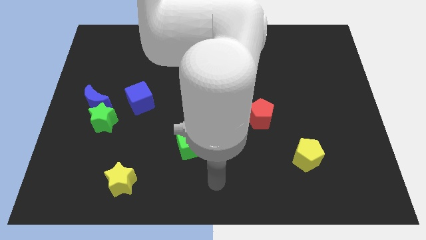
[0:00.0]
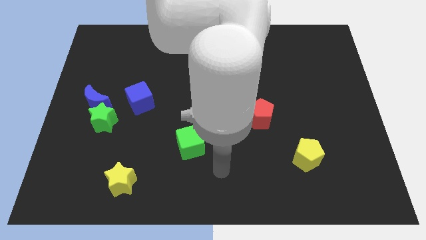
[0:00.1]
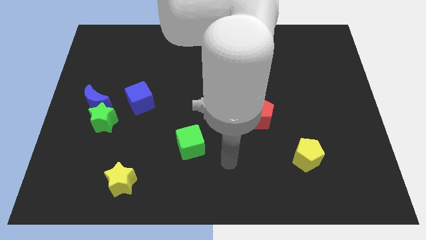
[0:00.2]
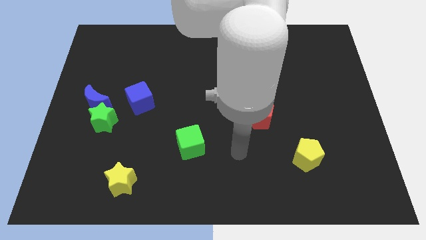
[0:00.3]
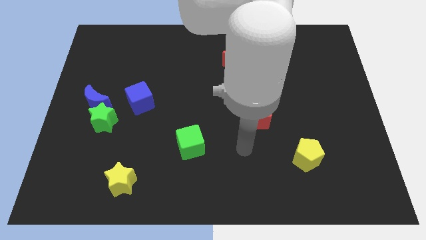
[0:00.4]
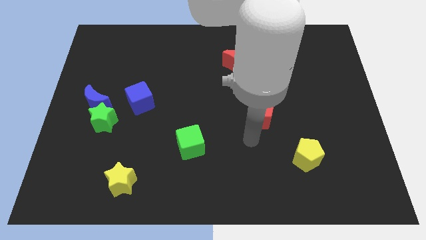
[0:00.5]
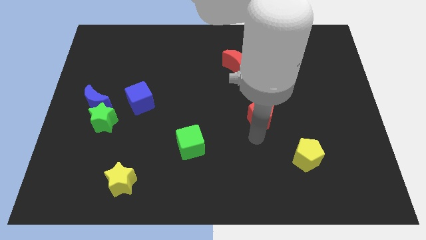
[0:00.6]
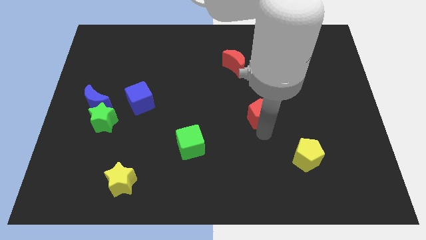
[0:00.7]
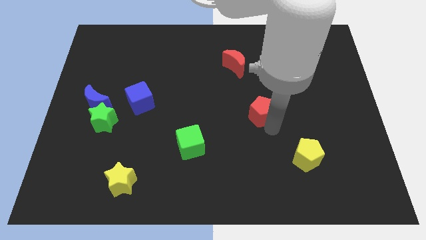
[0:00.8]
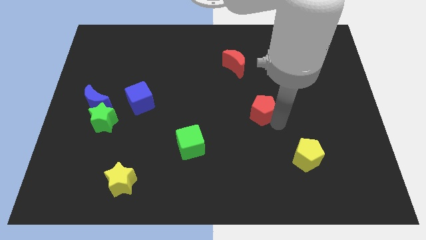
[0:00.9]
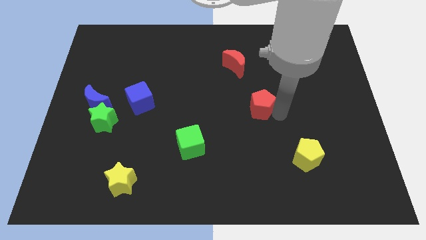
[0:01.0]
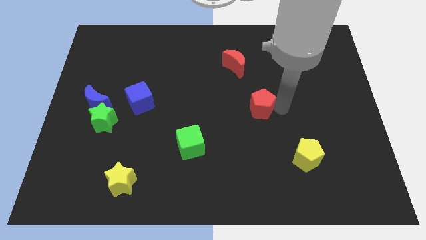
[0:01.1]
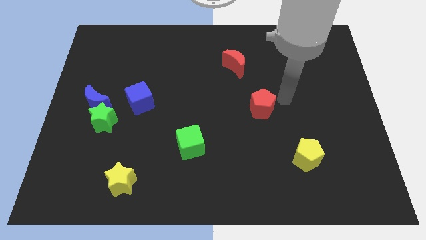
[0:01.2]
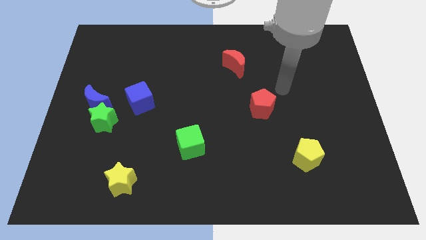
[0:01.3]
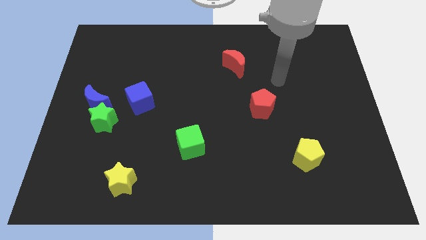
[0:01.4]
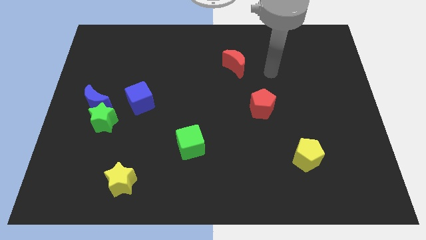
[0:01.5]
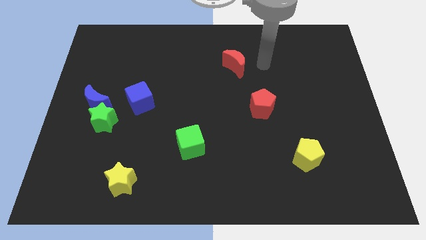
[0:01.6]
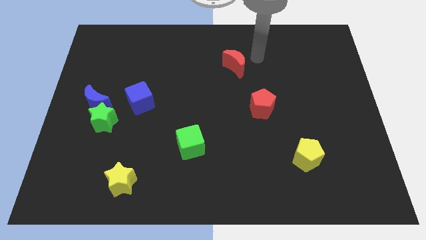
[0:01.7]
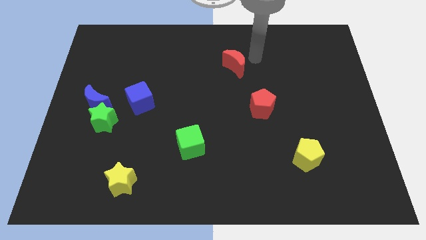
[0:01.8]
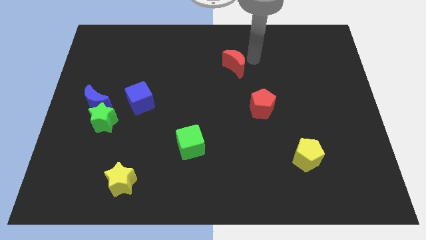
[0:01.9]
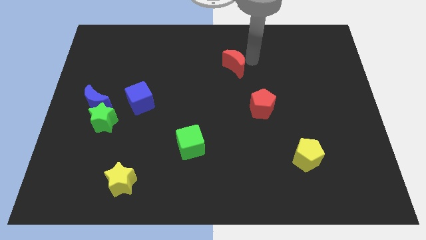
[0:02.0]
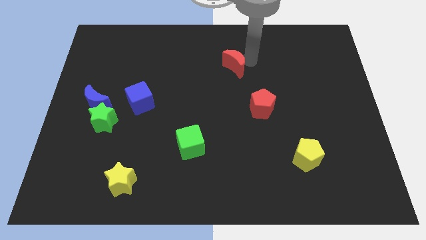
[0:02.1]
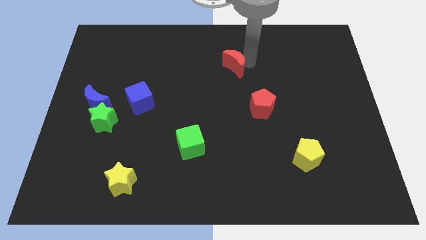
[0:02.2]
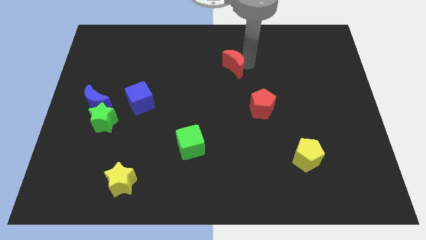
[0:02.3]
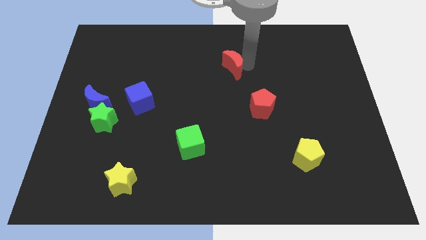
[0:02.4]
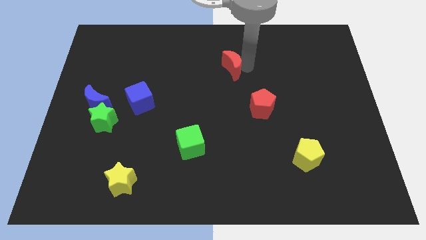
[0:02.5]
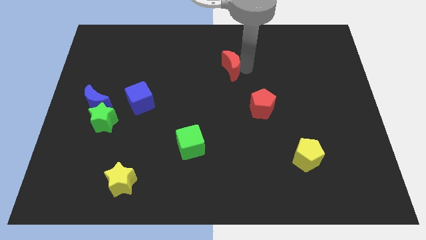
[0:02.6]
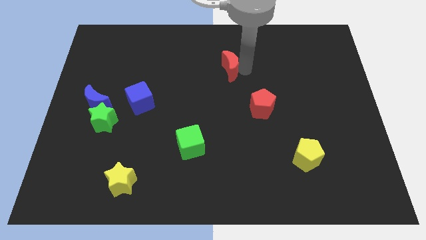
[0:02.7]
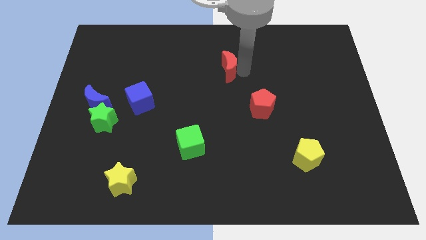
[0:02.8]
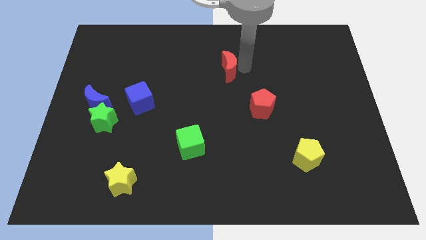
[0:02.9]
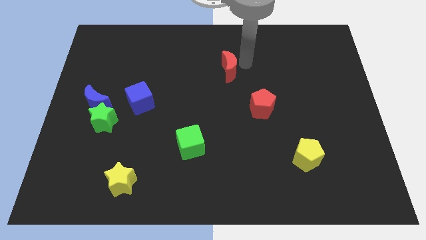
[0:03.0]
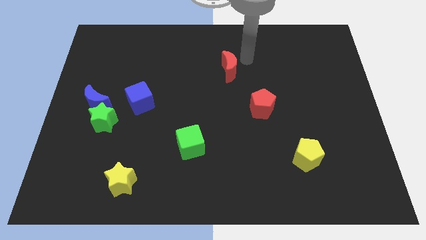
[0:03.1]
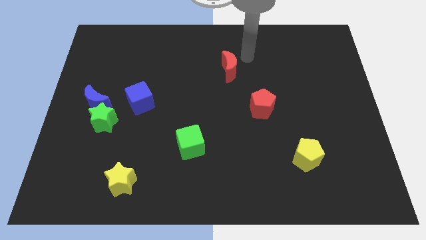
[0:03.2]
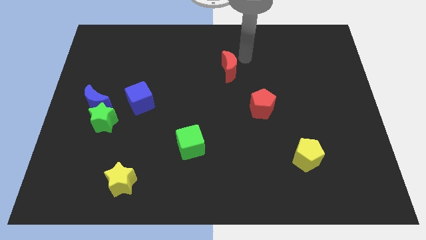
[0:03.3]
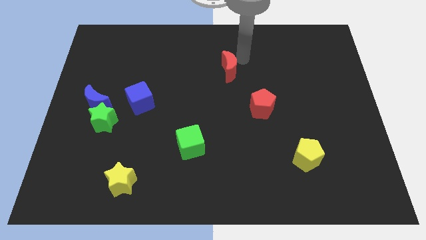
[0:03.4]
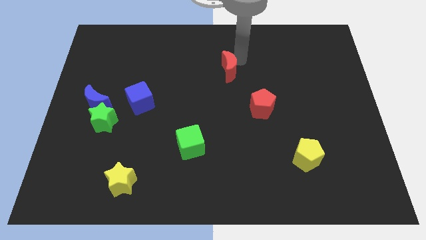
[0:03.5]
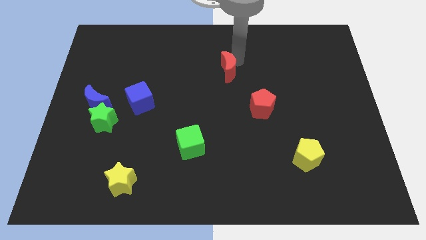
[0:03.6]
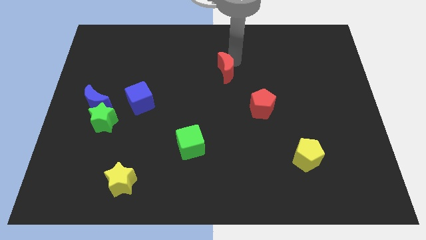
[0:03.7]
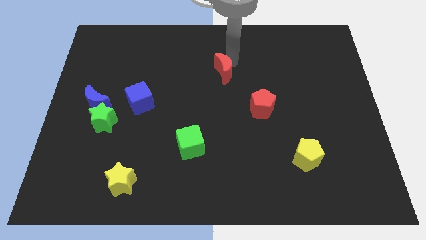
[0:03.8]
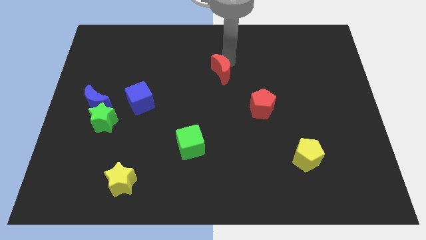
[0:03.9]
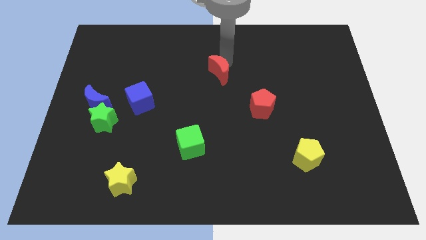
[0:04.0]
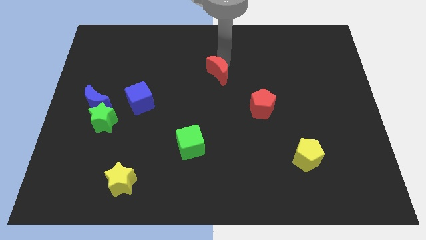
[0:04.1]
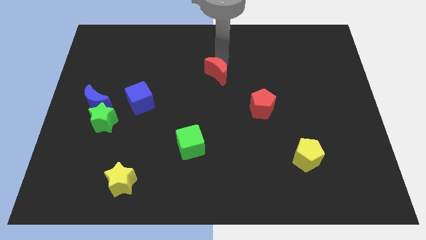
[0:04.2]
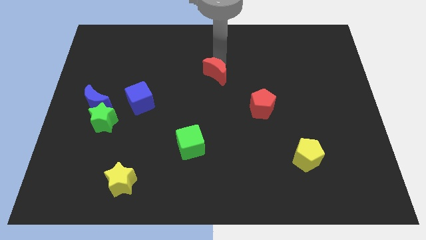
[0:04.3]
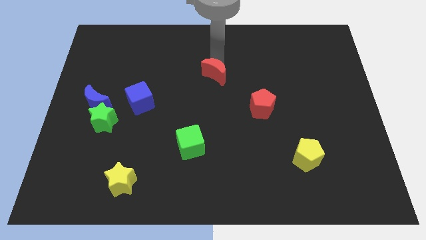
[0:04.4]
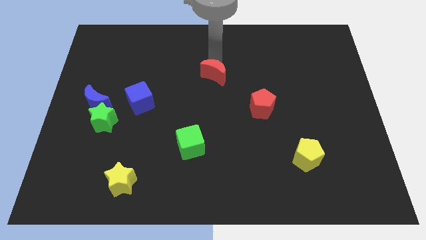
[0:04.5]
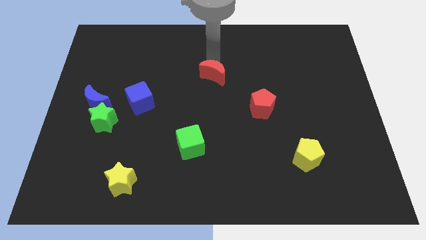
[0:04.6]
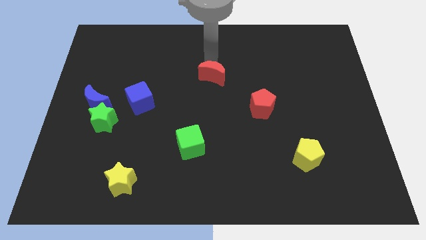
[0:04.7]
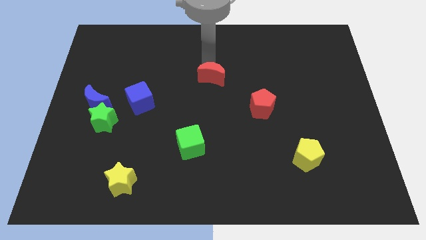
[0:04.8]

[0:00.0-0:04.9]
move the red moon diagonally downwards and left a bit

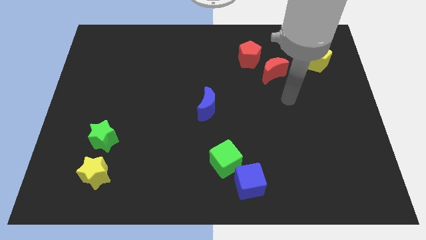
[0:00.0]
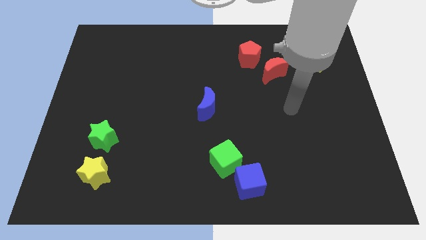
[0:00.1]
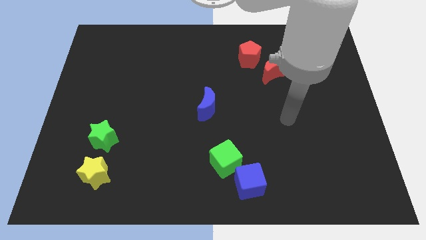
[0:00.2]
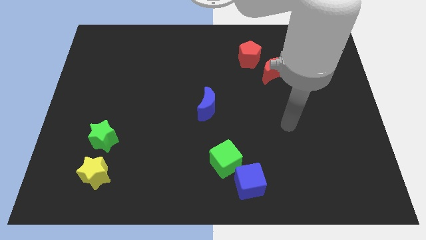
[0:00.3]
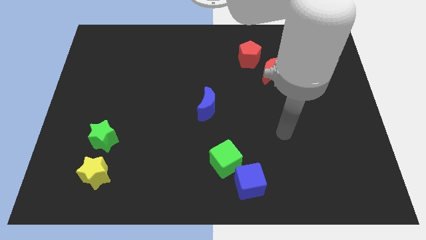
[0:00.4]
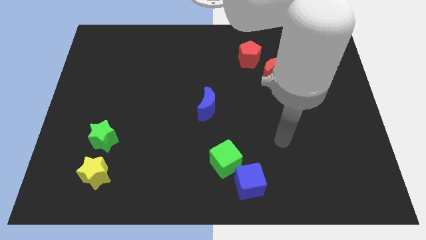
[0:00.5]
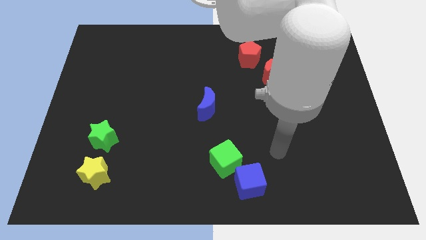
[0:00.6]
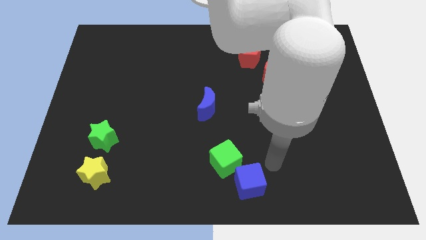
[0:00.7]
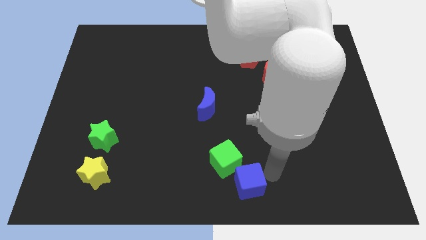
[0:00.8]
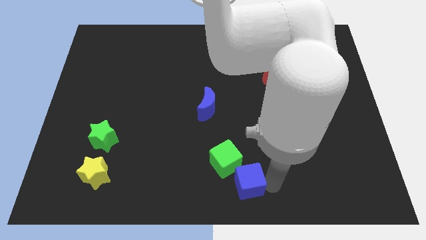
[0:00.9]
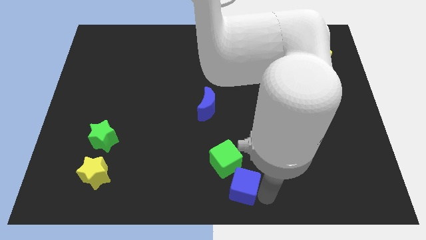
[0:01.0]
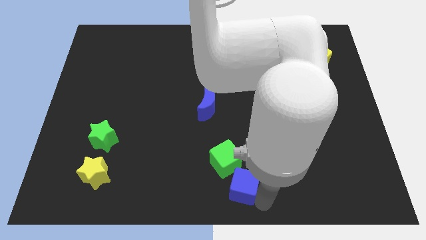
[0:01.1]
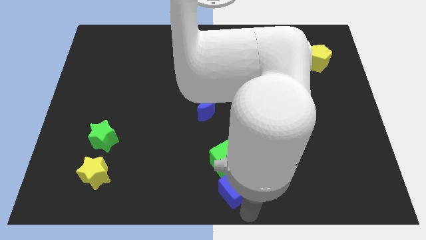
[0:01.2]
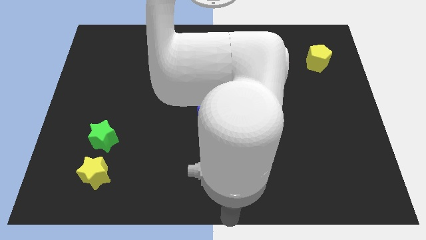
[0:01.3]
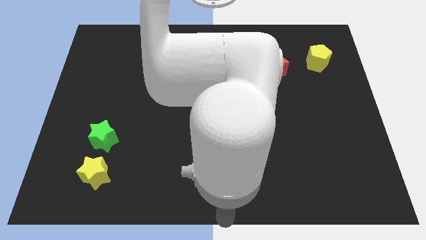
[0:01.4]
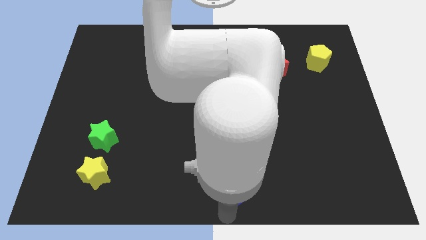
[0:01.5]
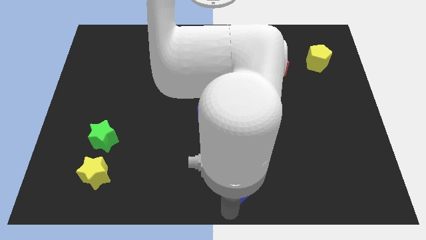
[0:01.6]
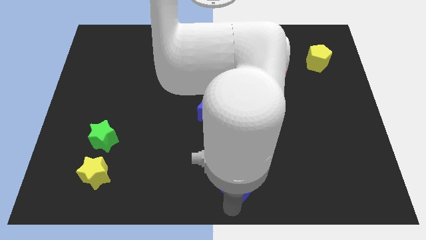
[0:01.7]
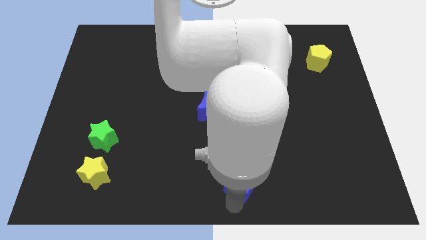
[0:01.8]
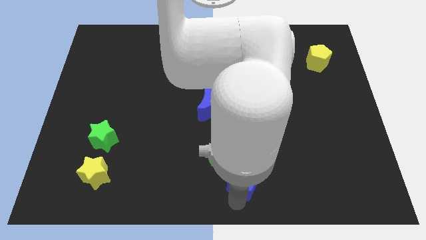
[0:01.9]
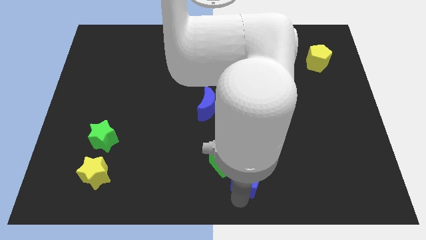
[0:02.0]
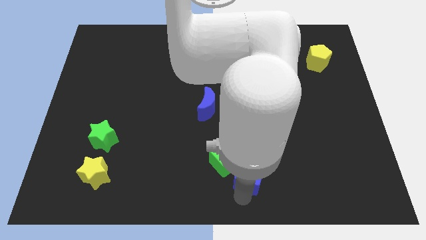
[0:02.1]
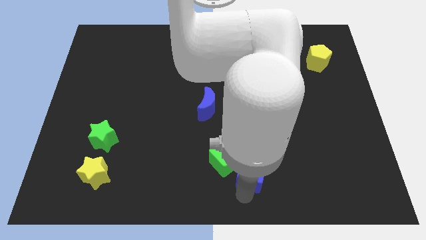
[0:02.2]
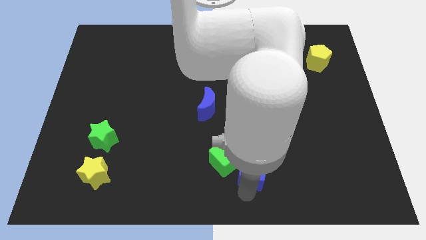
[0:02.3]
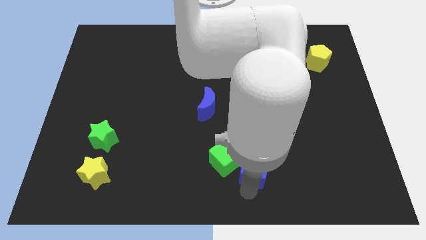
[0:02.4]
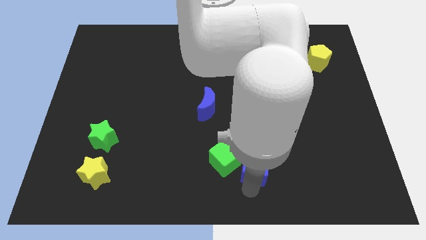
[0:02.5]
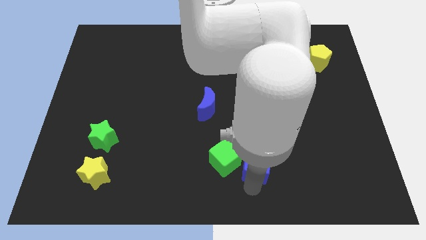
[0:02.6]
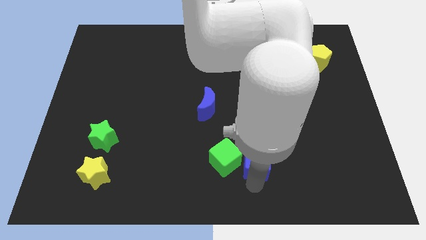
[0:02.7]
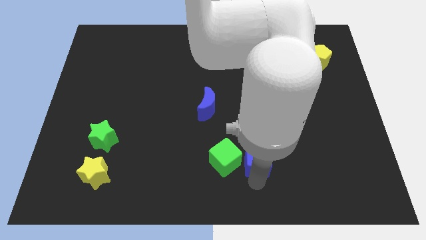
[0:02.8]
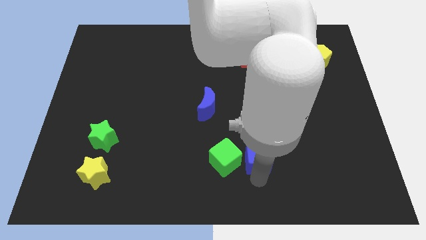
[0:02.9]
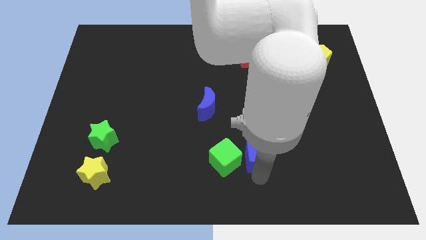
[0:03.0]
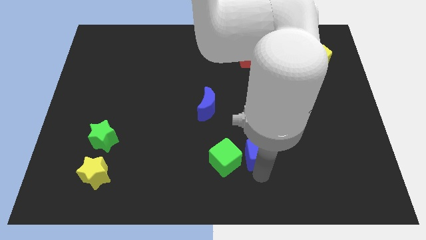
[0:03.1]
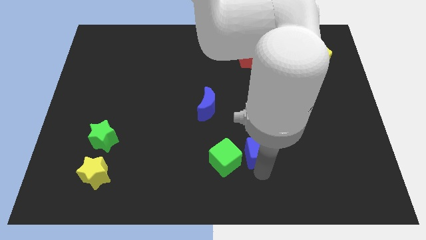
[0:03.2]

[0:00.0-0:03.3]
slide the blue cube slightly up
